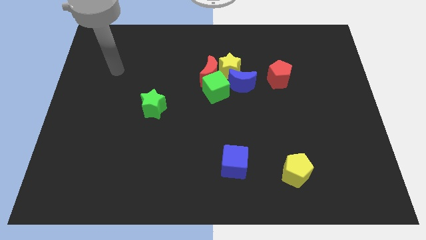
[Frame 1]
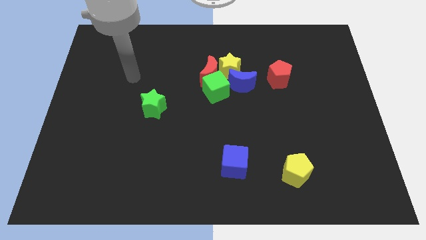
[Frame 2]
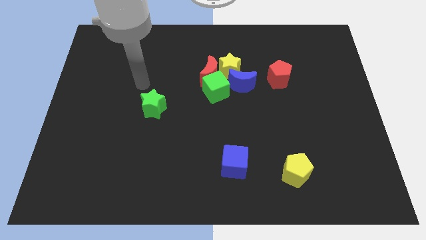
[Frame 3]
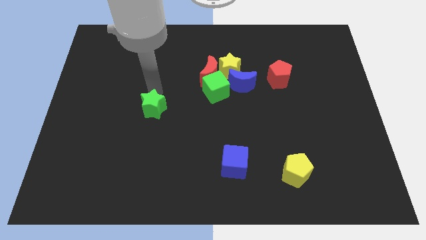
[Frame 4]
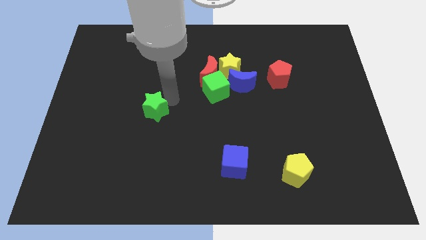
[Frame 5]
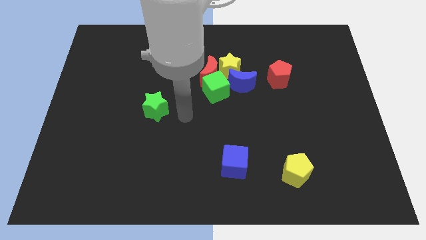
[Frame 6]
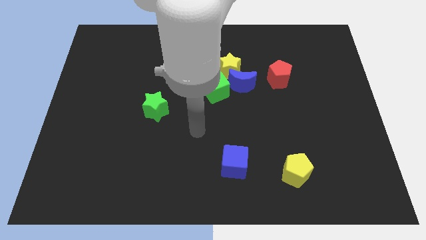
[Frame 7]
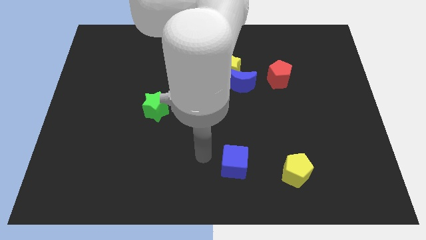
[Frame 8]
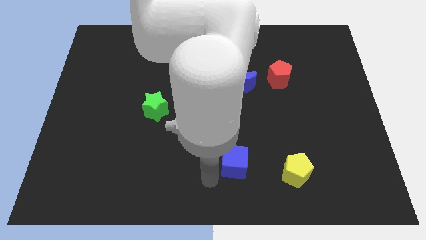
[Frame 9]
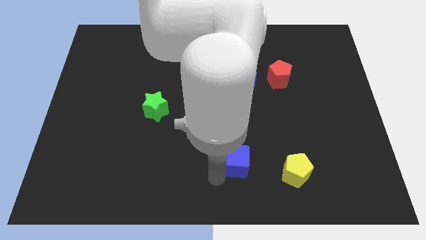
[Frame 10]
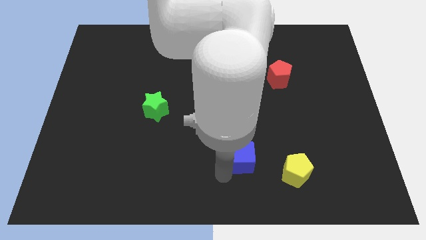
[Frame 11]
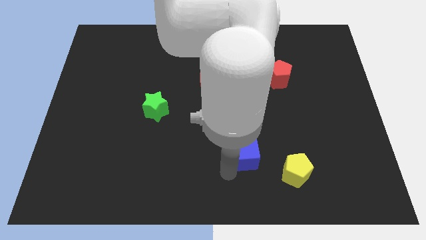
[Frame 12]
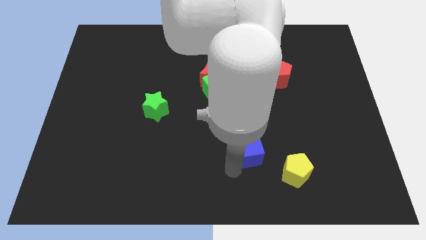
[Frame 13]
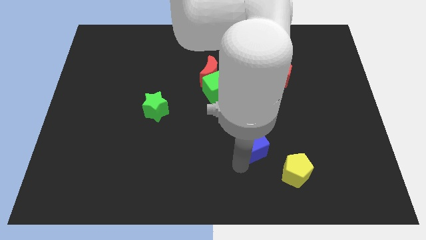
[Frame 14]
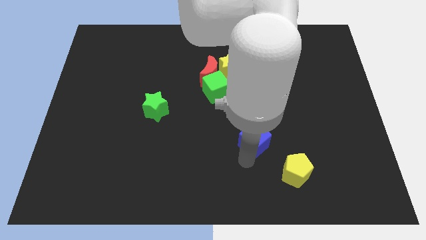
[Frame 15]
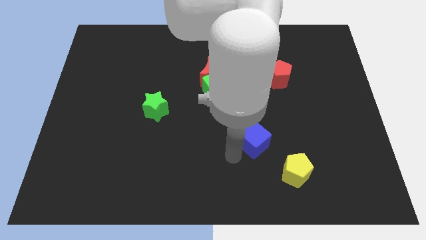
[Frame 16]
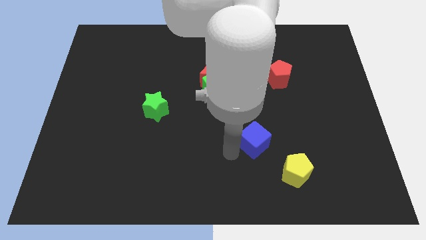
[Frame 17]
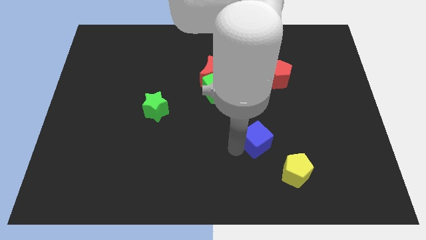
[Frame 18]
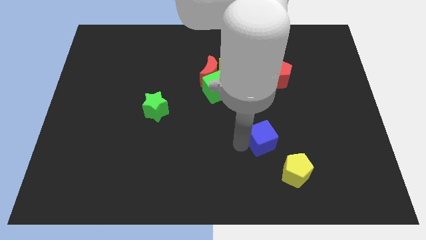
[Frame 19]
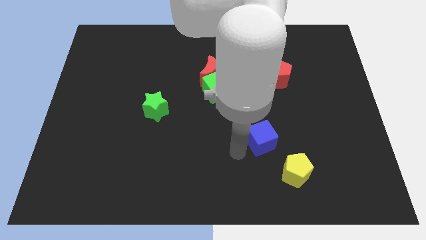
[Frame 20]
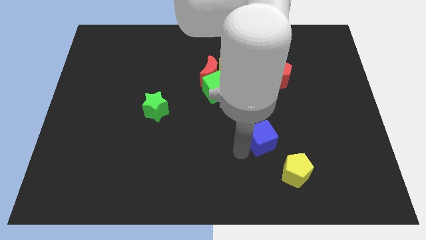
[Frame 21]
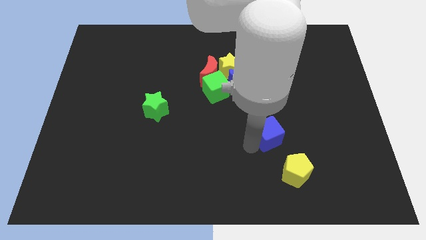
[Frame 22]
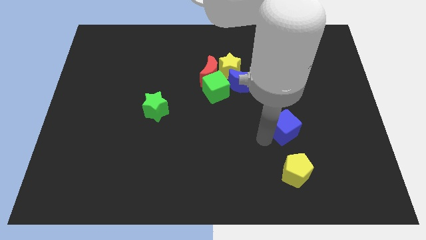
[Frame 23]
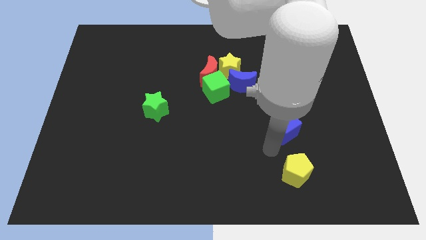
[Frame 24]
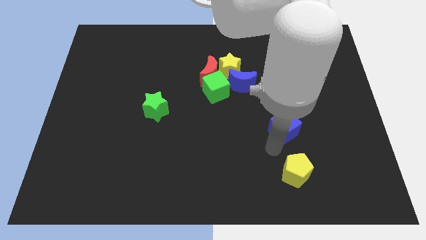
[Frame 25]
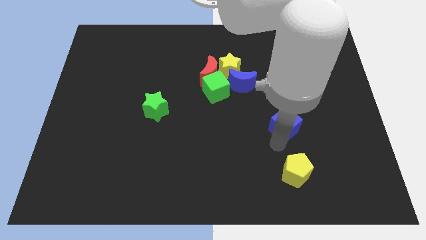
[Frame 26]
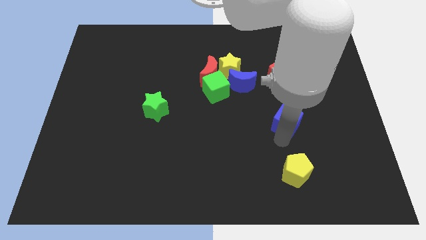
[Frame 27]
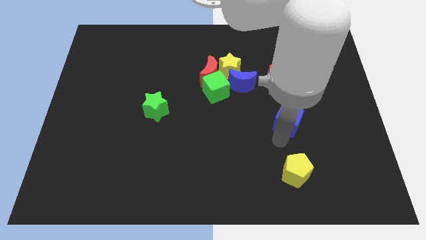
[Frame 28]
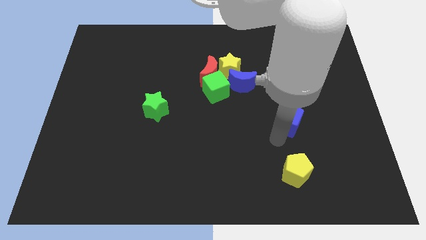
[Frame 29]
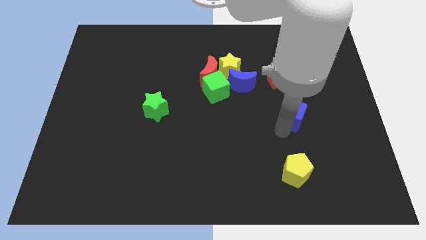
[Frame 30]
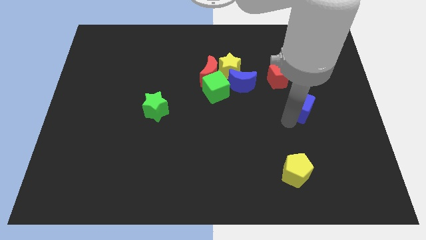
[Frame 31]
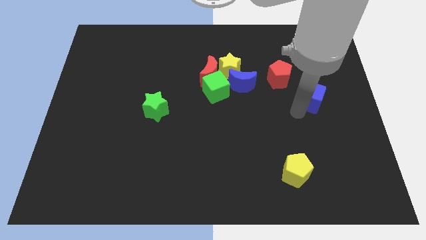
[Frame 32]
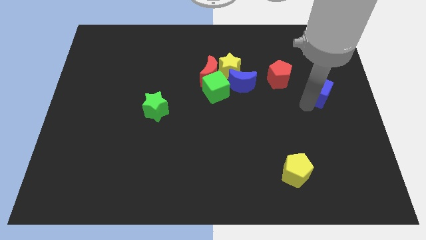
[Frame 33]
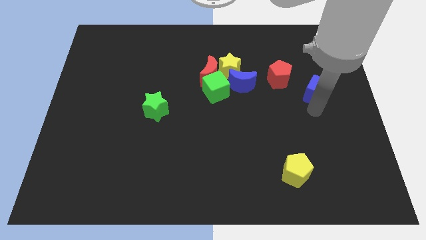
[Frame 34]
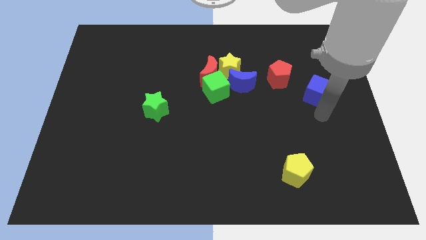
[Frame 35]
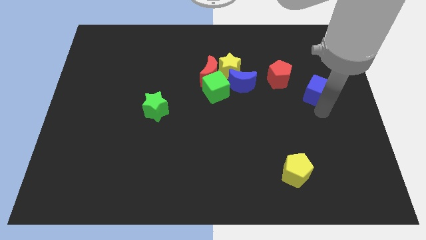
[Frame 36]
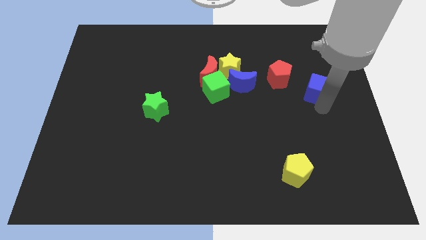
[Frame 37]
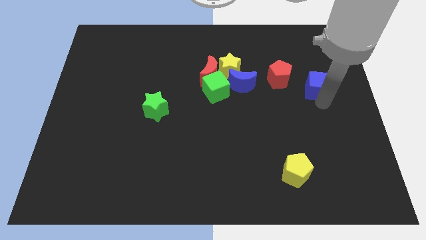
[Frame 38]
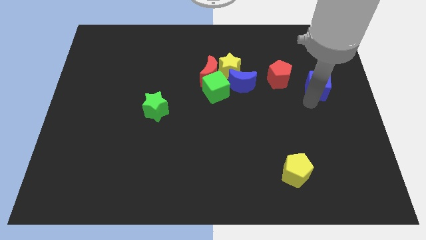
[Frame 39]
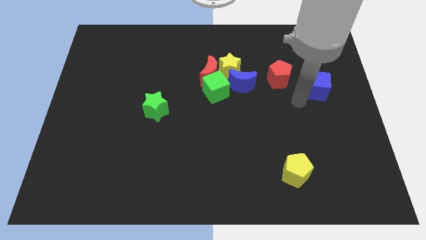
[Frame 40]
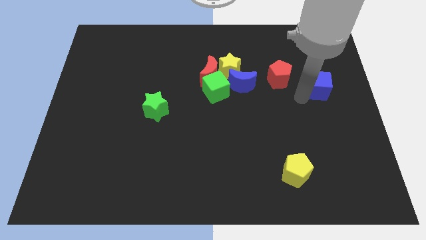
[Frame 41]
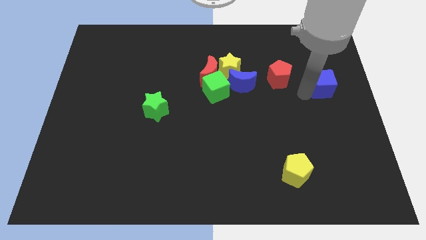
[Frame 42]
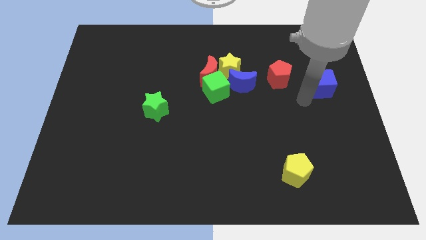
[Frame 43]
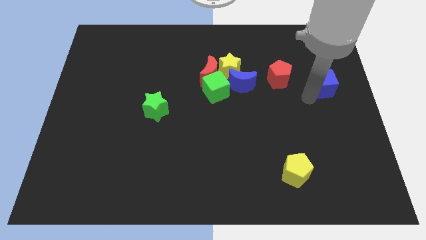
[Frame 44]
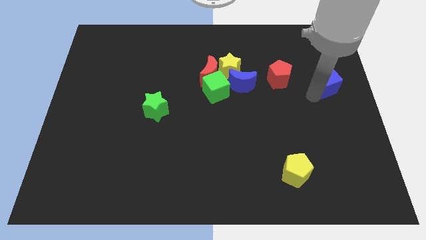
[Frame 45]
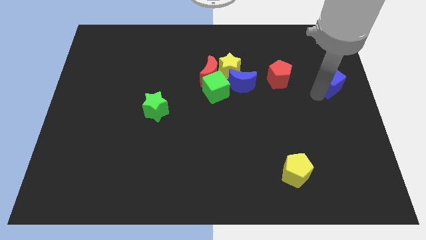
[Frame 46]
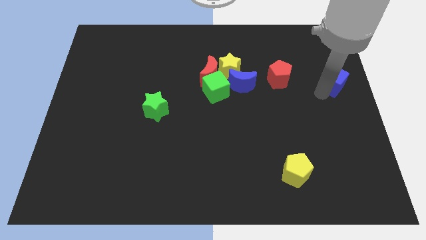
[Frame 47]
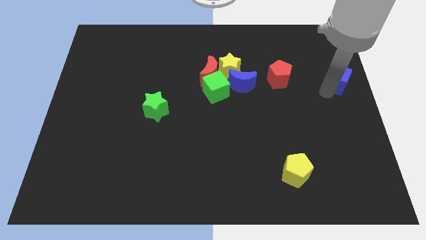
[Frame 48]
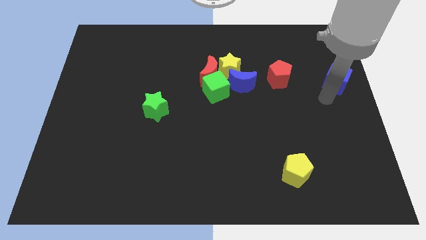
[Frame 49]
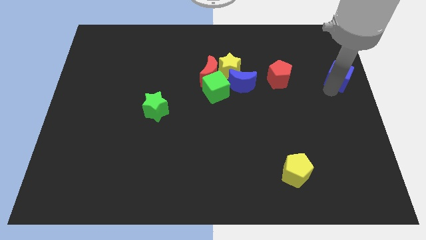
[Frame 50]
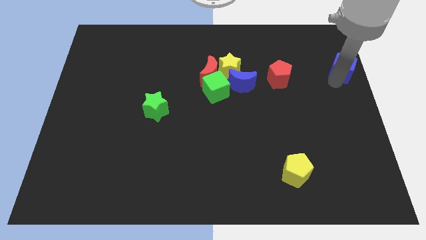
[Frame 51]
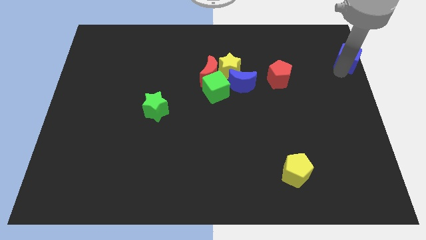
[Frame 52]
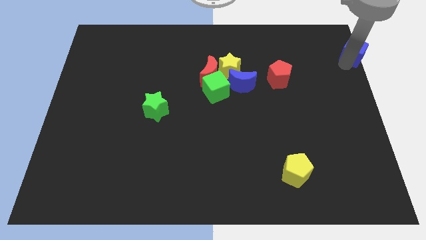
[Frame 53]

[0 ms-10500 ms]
push the blue cube to the top right

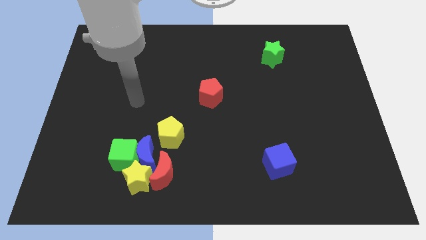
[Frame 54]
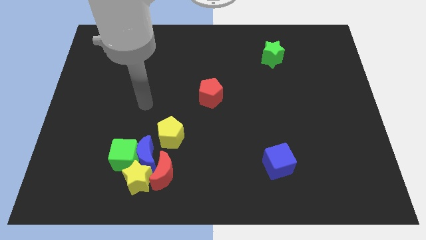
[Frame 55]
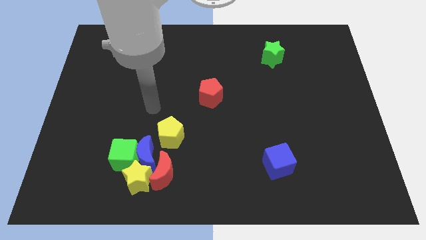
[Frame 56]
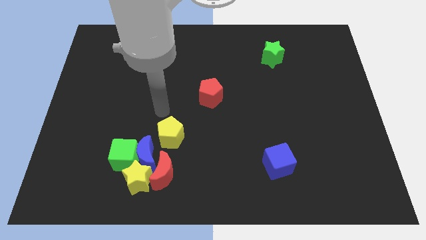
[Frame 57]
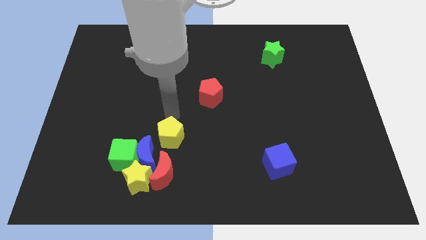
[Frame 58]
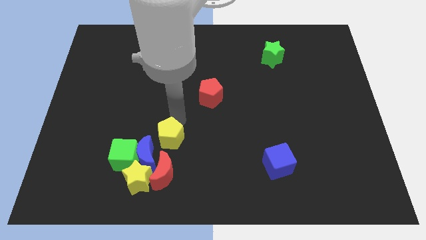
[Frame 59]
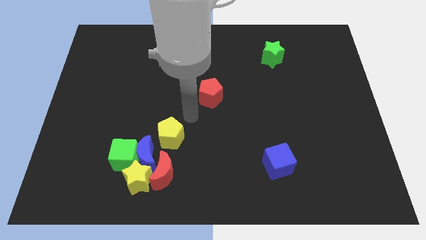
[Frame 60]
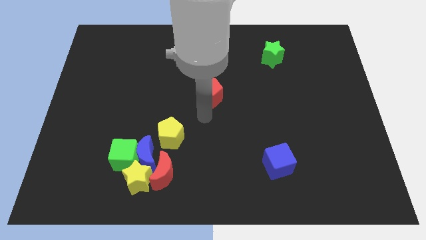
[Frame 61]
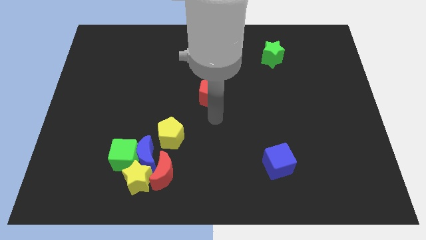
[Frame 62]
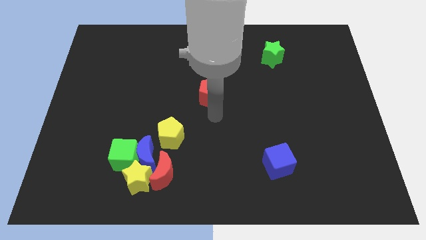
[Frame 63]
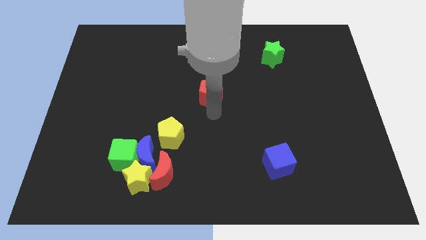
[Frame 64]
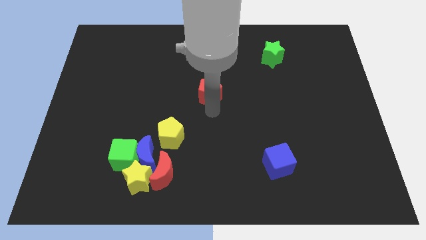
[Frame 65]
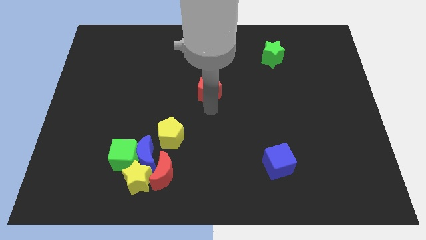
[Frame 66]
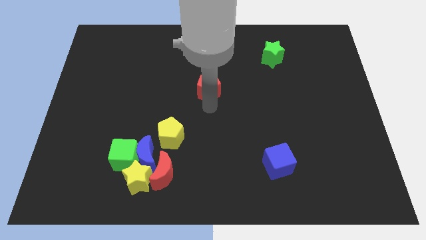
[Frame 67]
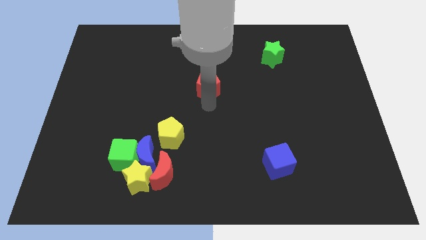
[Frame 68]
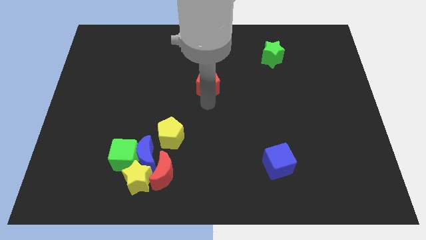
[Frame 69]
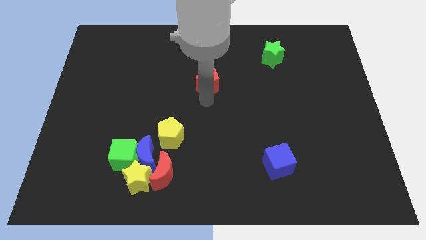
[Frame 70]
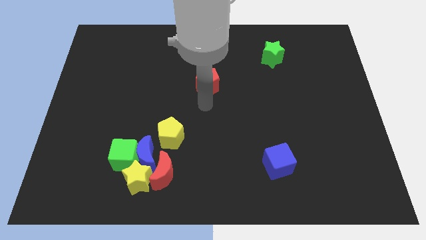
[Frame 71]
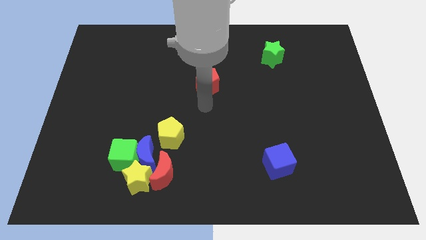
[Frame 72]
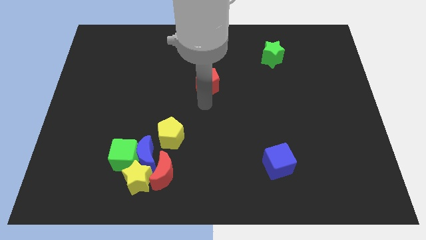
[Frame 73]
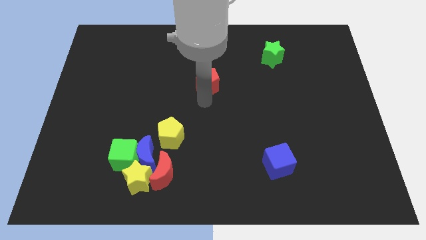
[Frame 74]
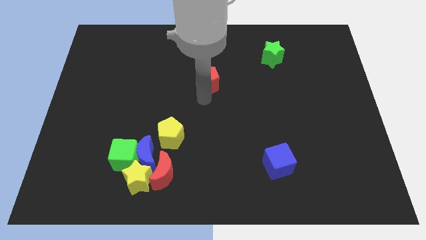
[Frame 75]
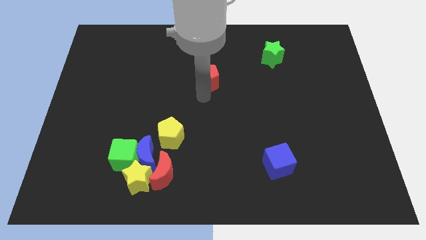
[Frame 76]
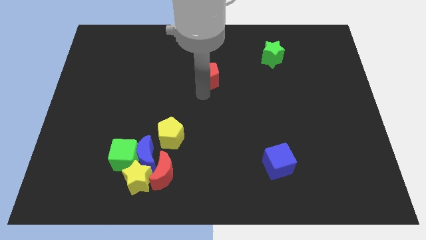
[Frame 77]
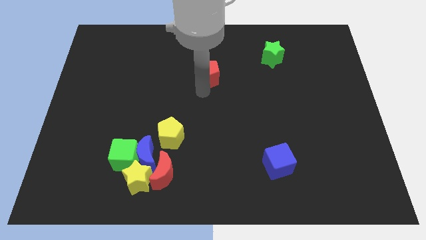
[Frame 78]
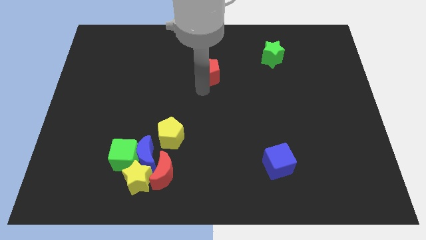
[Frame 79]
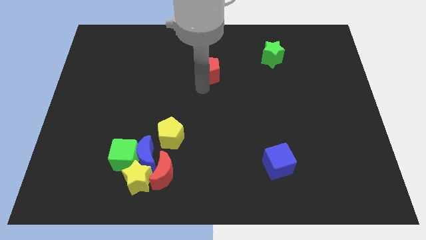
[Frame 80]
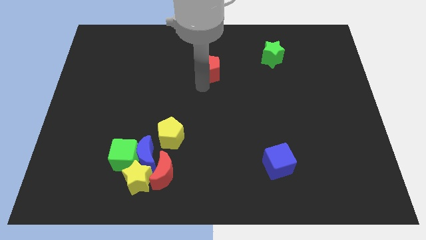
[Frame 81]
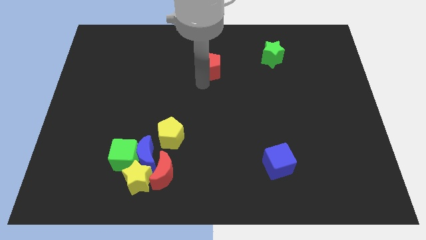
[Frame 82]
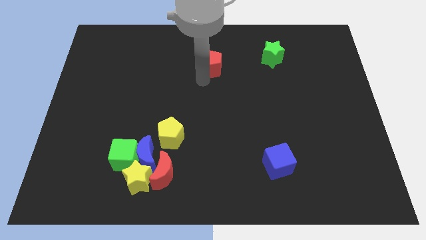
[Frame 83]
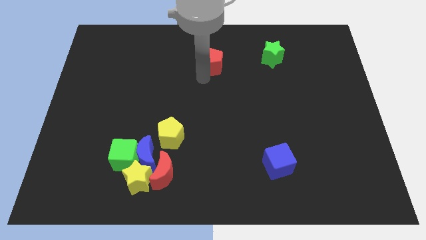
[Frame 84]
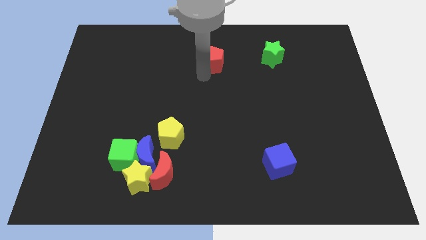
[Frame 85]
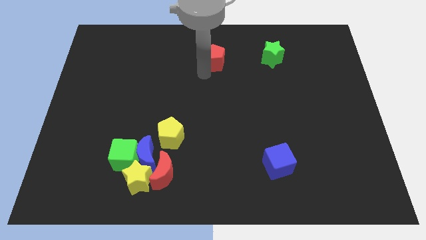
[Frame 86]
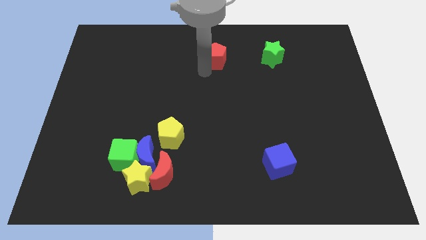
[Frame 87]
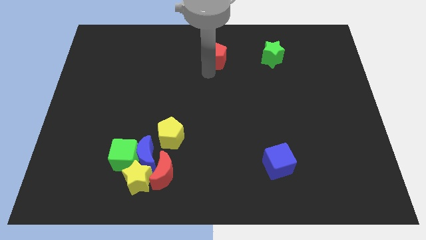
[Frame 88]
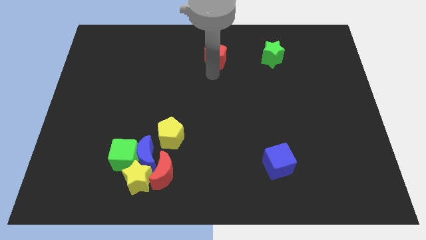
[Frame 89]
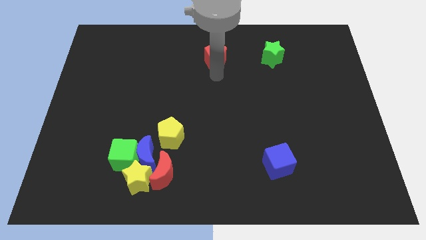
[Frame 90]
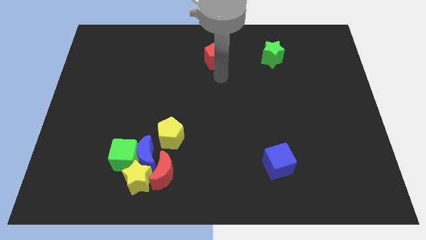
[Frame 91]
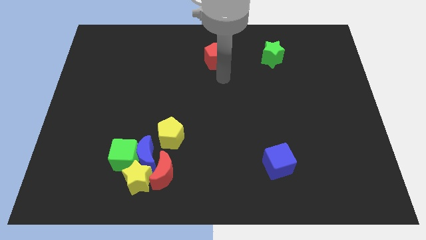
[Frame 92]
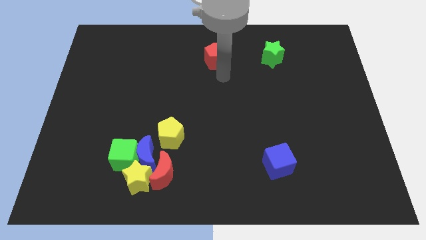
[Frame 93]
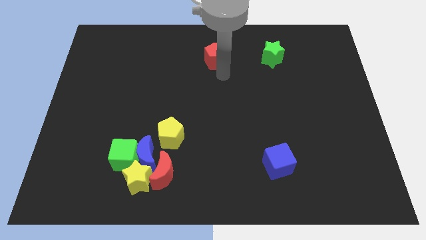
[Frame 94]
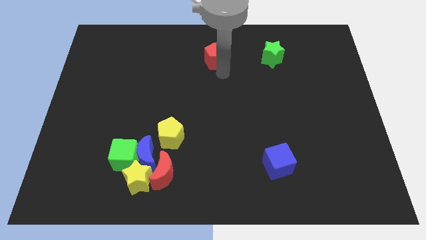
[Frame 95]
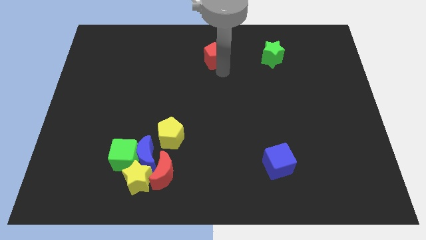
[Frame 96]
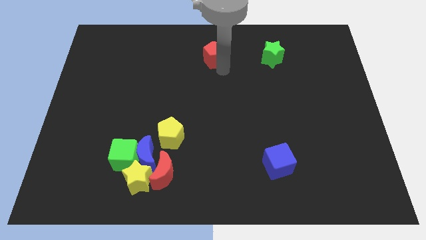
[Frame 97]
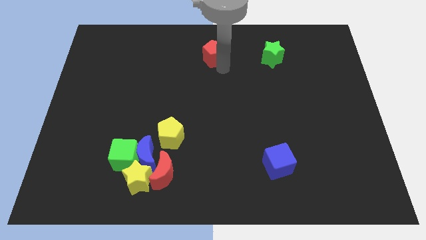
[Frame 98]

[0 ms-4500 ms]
push the red pentagon to the top
